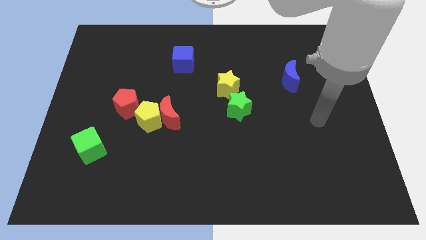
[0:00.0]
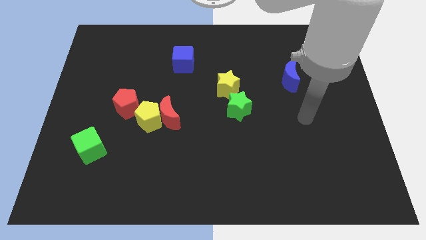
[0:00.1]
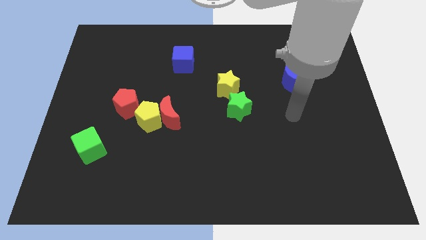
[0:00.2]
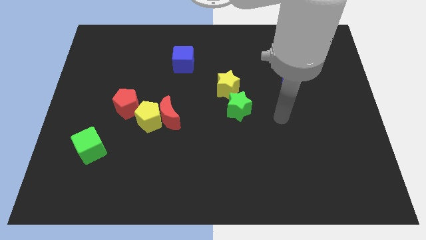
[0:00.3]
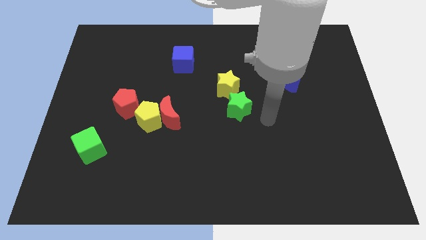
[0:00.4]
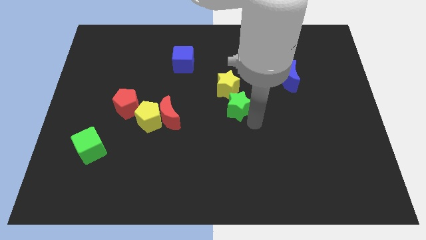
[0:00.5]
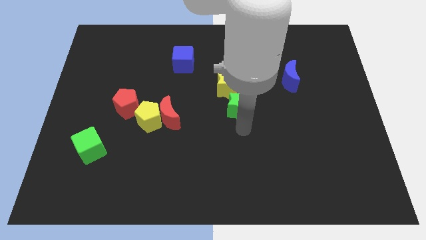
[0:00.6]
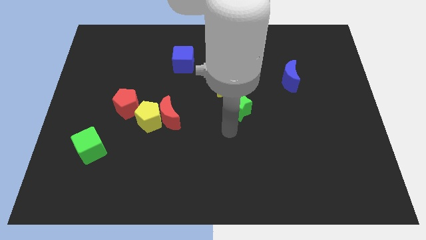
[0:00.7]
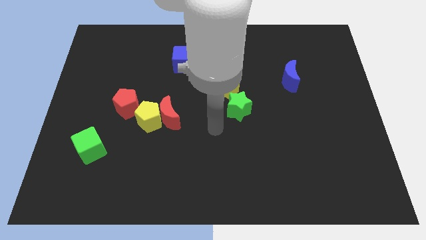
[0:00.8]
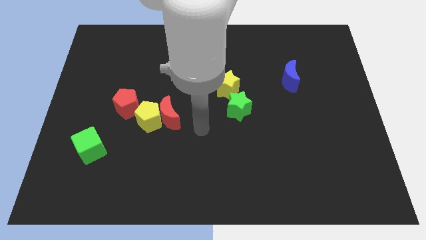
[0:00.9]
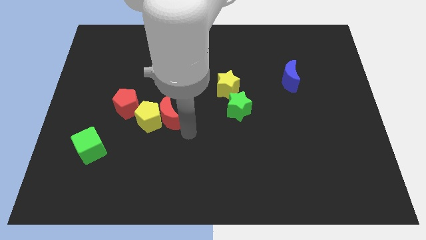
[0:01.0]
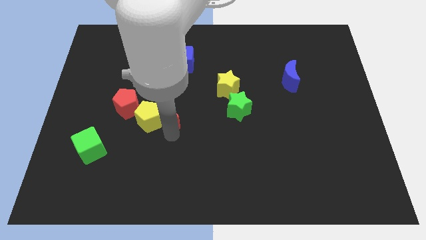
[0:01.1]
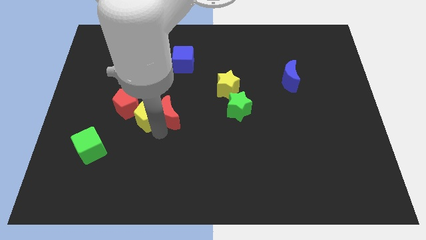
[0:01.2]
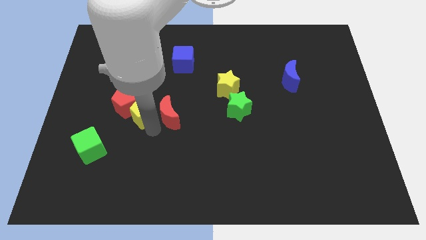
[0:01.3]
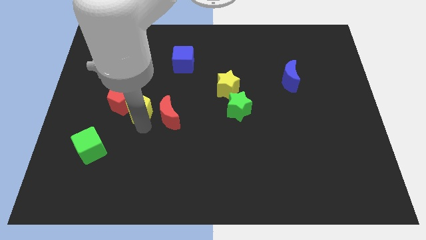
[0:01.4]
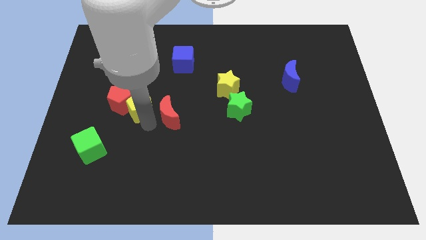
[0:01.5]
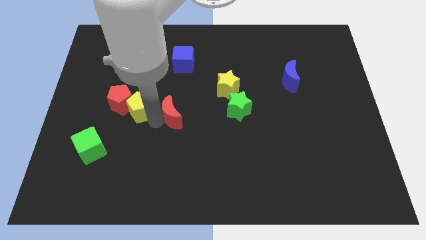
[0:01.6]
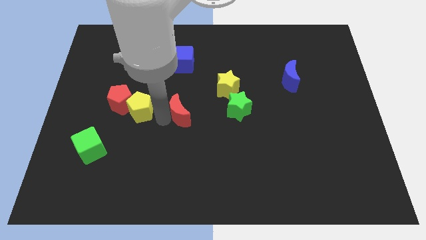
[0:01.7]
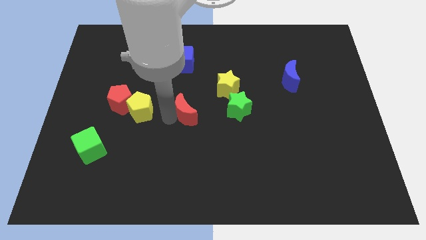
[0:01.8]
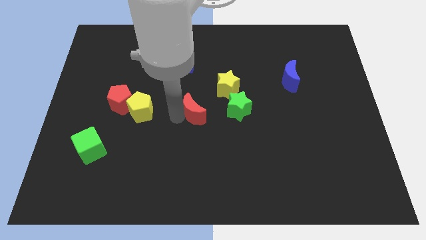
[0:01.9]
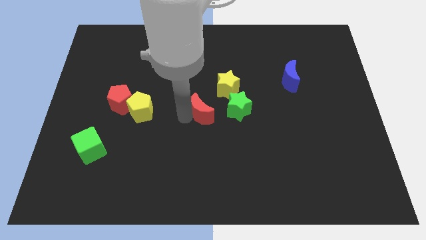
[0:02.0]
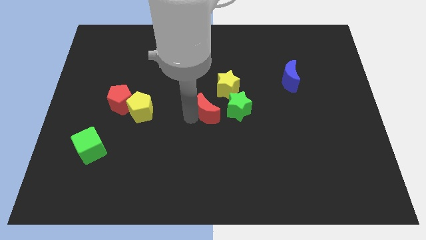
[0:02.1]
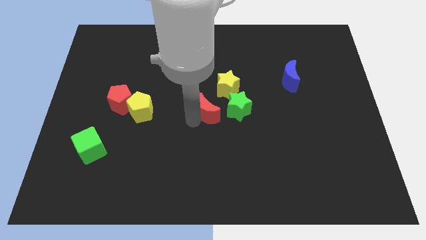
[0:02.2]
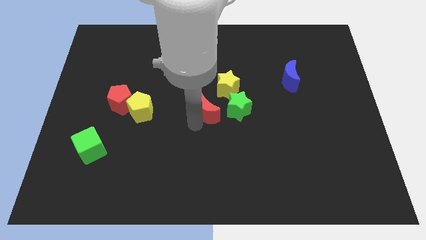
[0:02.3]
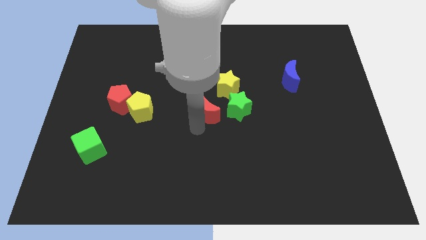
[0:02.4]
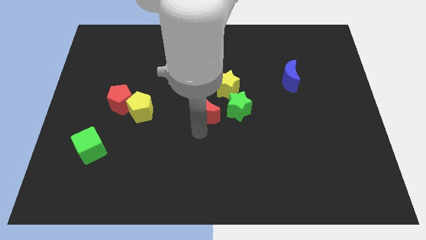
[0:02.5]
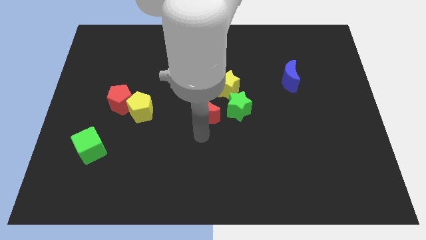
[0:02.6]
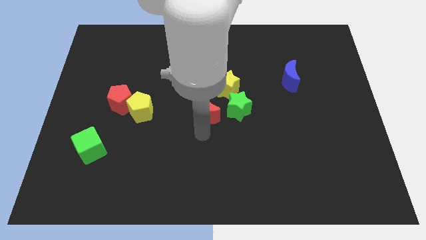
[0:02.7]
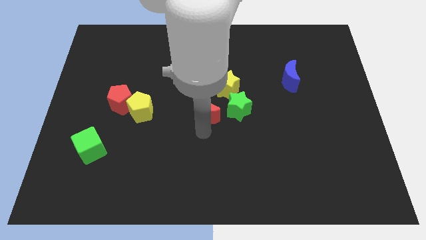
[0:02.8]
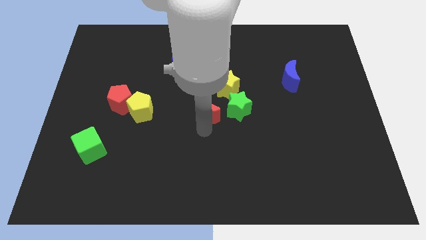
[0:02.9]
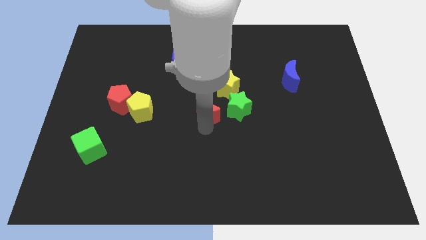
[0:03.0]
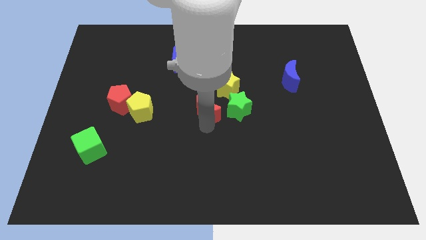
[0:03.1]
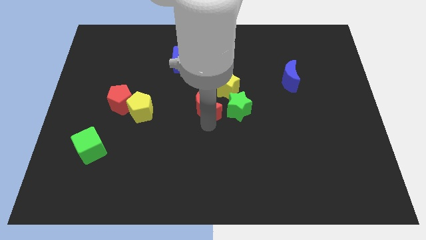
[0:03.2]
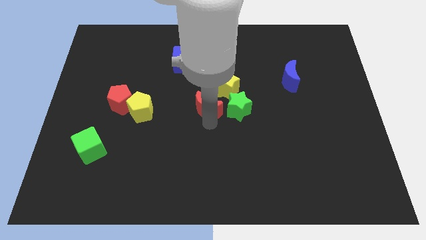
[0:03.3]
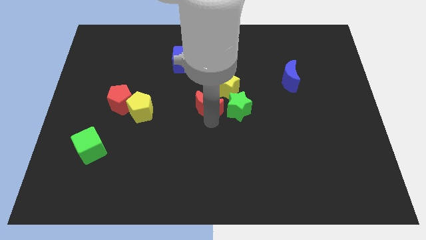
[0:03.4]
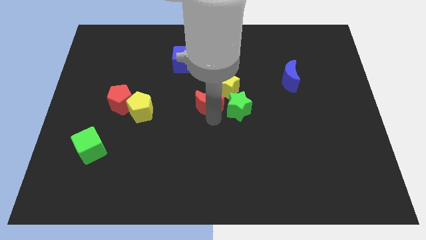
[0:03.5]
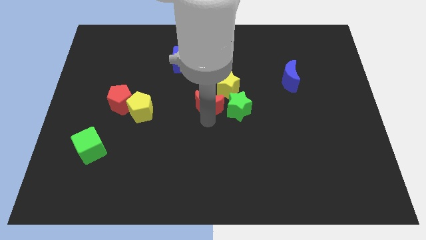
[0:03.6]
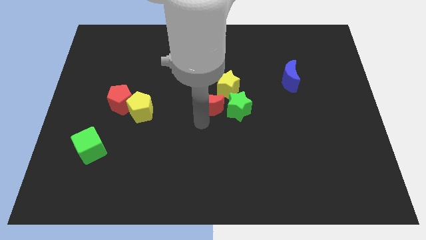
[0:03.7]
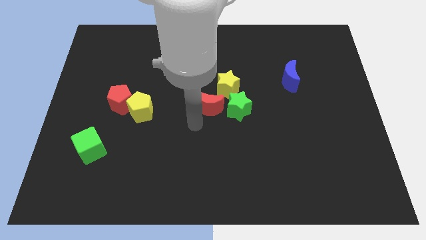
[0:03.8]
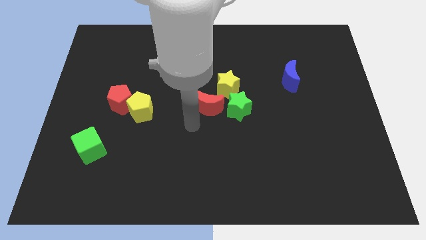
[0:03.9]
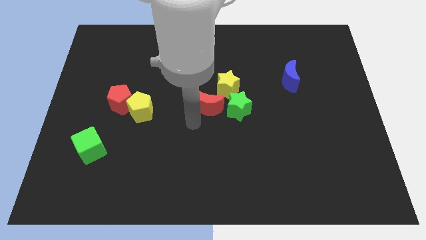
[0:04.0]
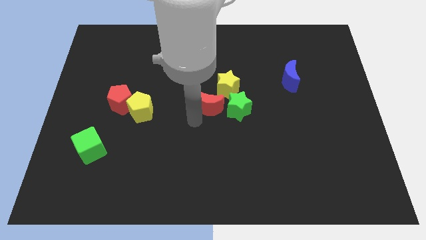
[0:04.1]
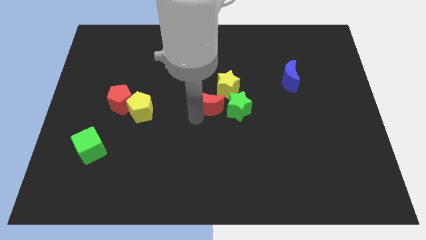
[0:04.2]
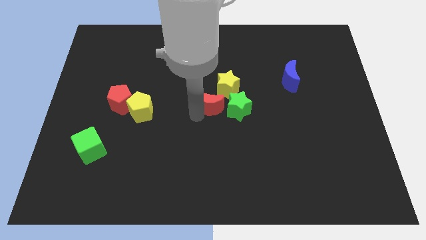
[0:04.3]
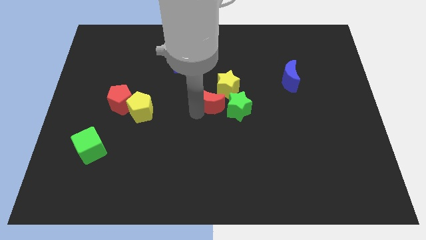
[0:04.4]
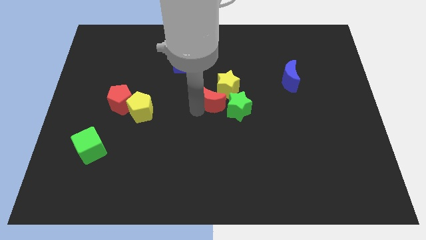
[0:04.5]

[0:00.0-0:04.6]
slide the red moon close to the yellow star

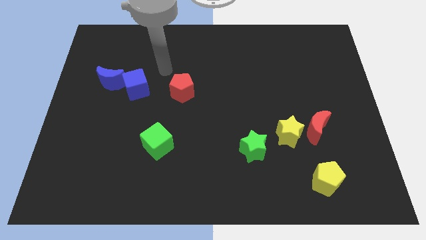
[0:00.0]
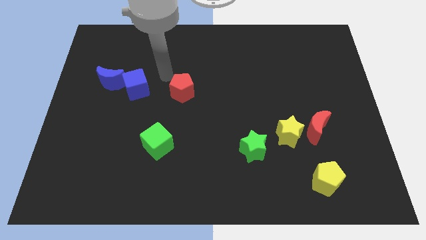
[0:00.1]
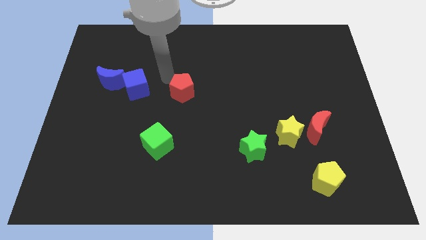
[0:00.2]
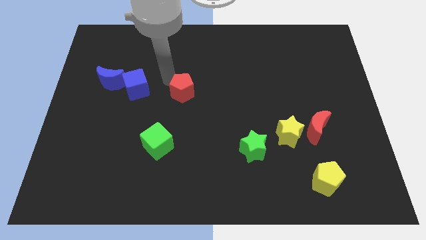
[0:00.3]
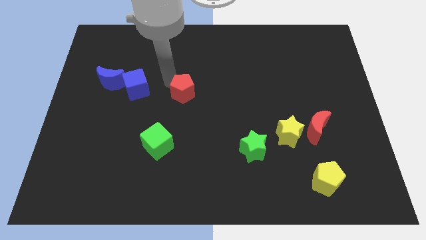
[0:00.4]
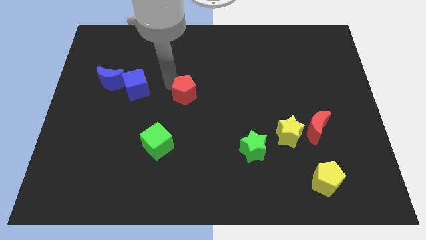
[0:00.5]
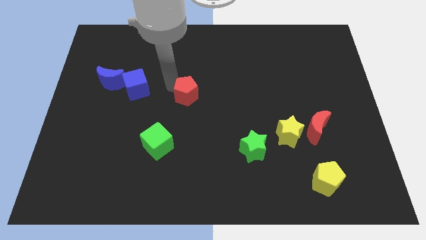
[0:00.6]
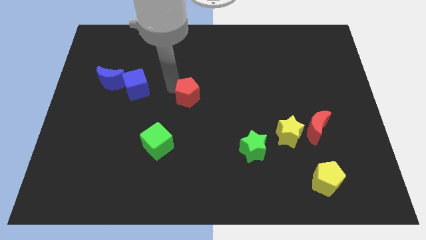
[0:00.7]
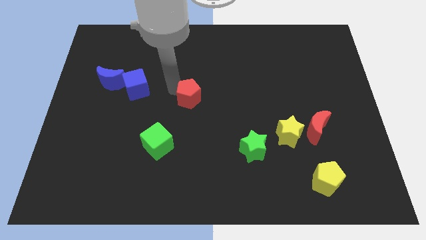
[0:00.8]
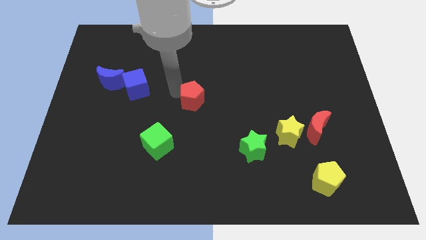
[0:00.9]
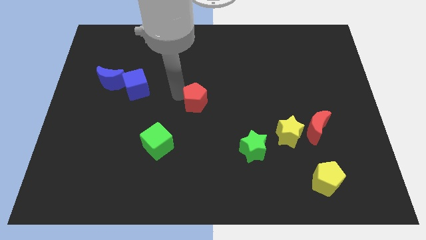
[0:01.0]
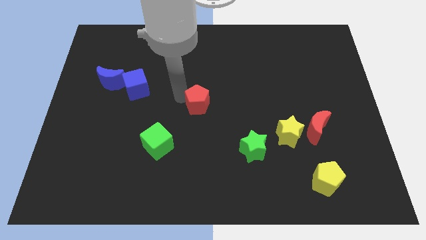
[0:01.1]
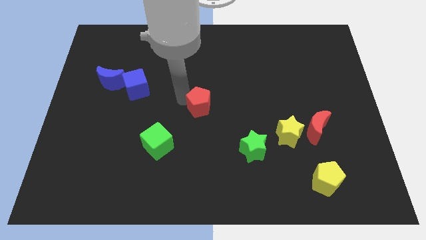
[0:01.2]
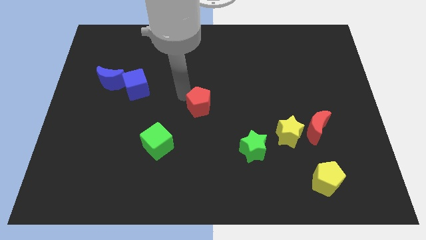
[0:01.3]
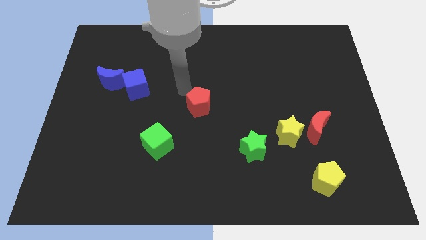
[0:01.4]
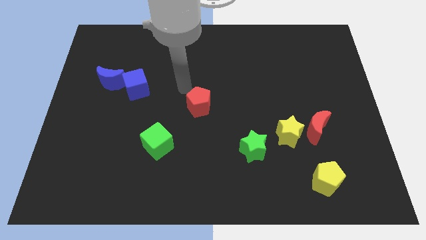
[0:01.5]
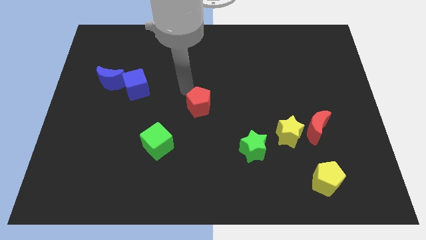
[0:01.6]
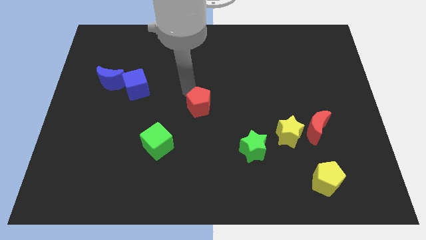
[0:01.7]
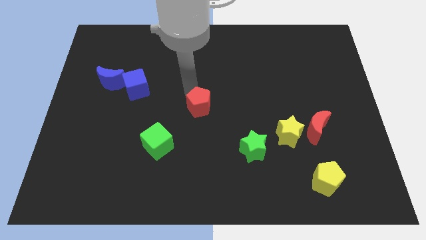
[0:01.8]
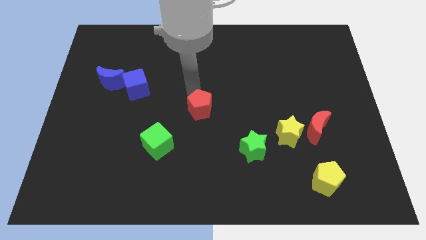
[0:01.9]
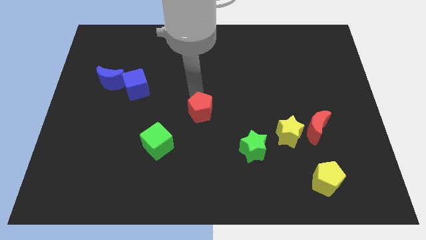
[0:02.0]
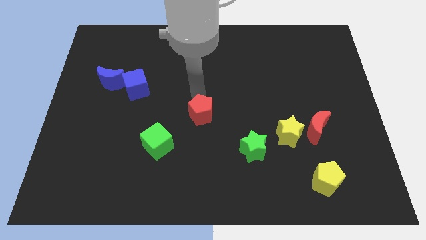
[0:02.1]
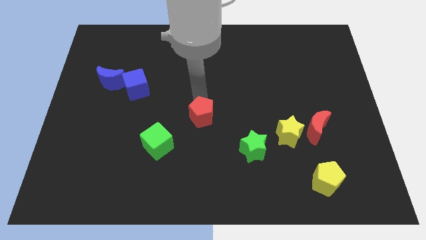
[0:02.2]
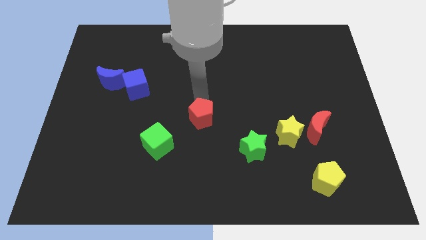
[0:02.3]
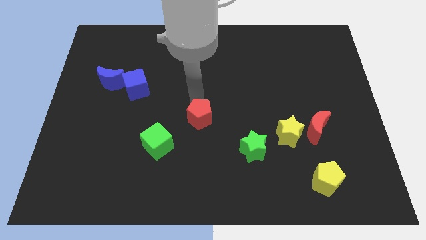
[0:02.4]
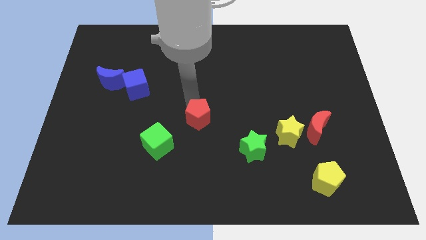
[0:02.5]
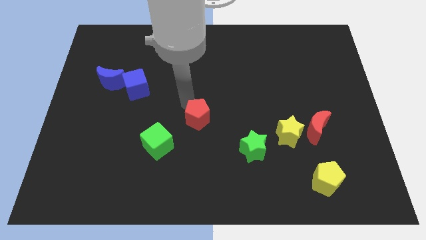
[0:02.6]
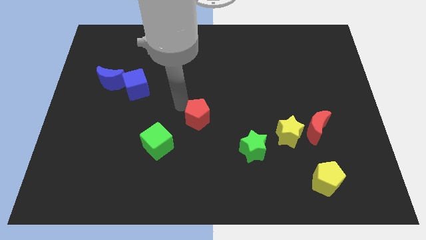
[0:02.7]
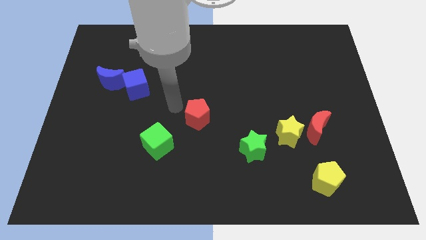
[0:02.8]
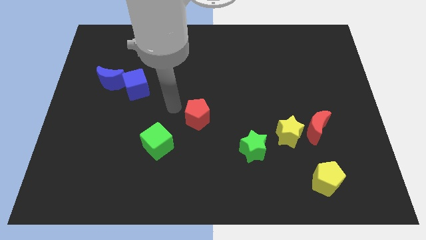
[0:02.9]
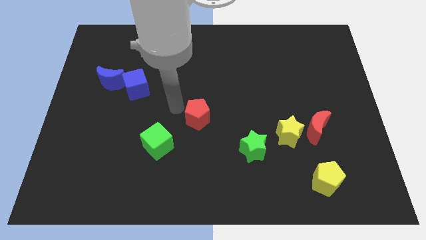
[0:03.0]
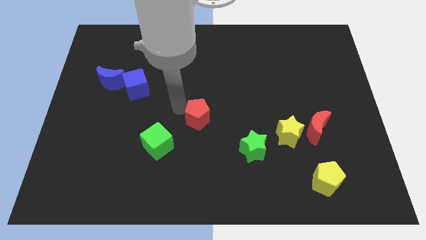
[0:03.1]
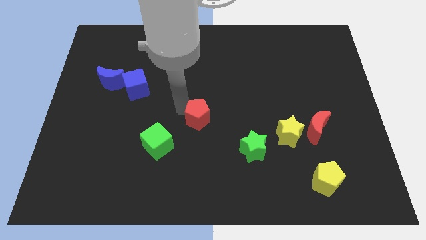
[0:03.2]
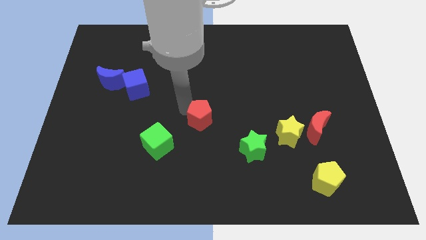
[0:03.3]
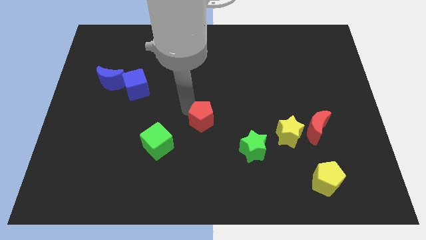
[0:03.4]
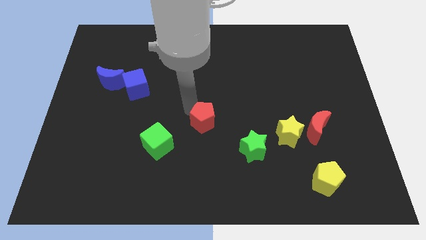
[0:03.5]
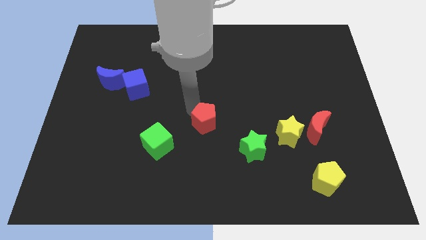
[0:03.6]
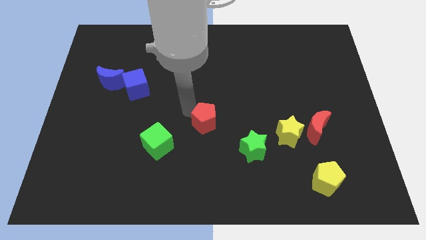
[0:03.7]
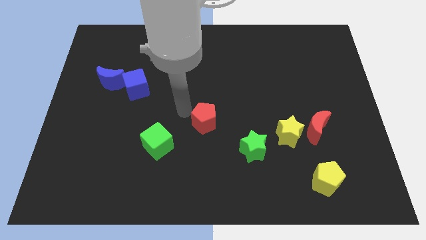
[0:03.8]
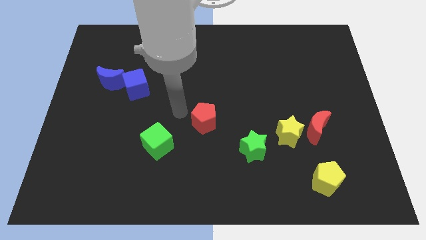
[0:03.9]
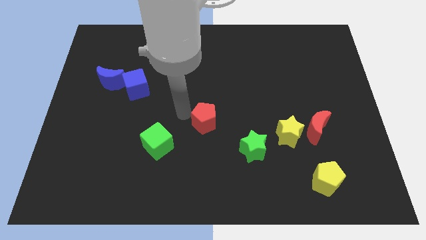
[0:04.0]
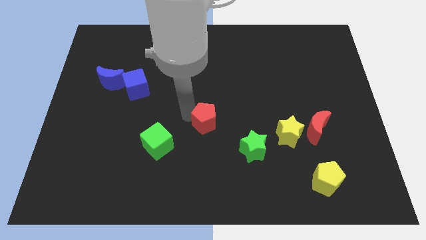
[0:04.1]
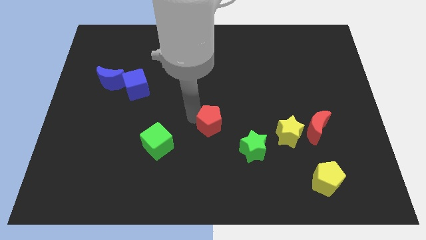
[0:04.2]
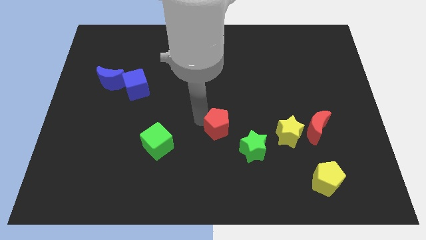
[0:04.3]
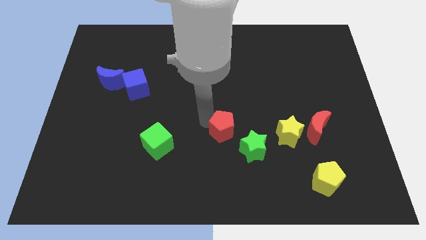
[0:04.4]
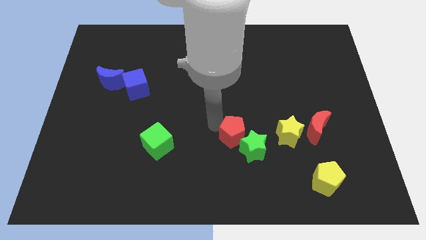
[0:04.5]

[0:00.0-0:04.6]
put the red pentagon next to the green star
